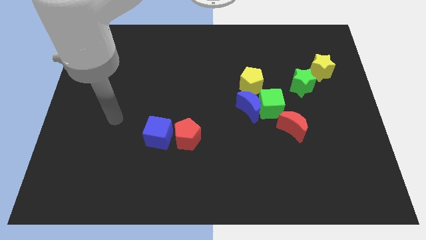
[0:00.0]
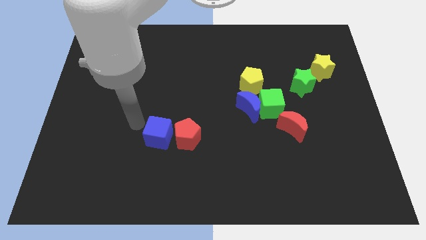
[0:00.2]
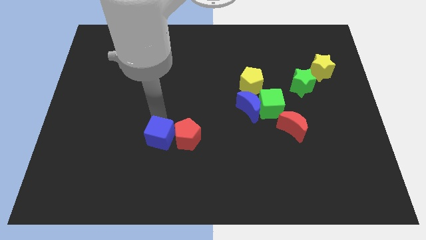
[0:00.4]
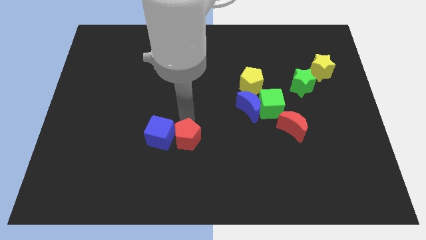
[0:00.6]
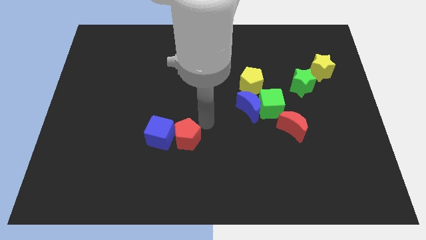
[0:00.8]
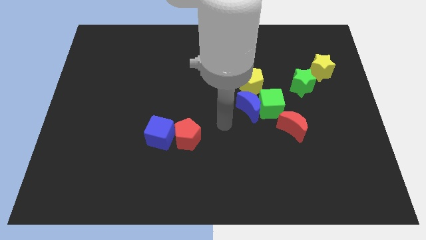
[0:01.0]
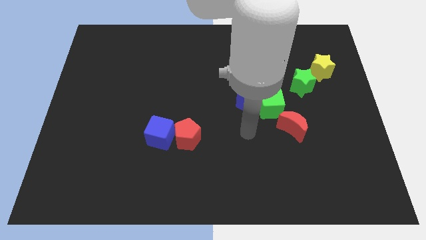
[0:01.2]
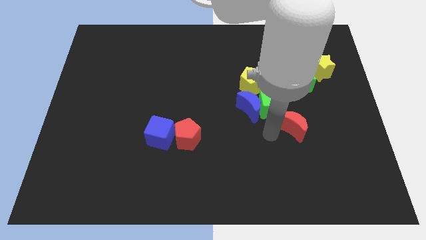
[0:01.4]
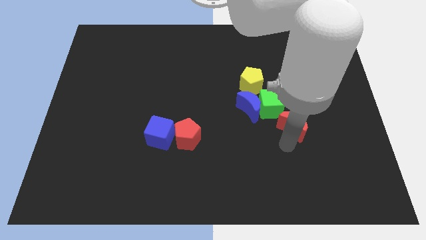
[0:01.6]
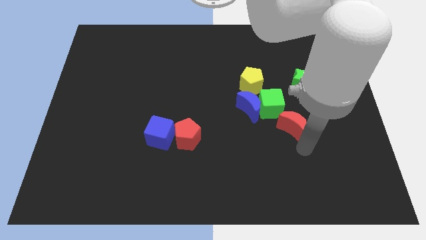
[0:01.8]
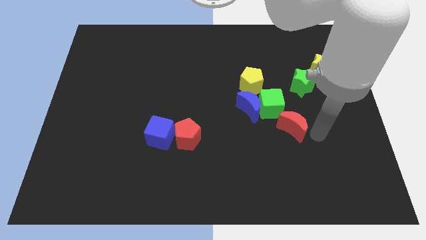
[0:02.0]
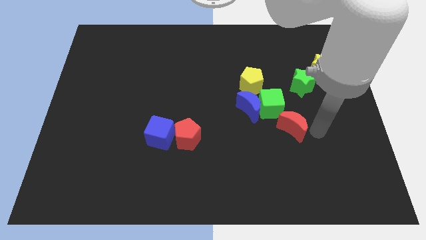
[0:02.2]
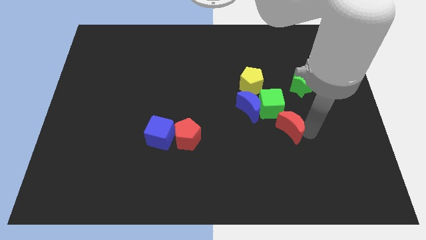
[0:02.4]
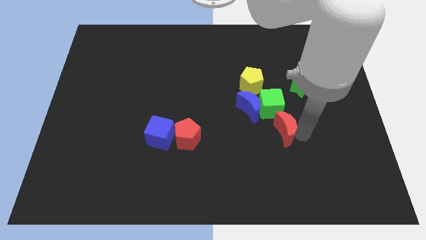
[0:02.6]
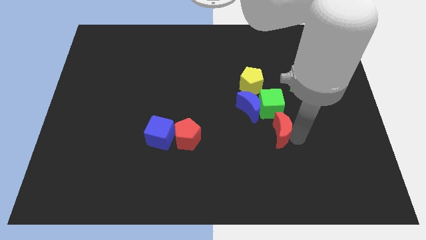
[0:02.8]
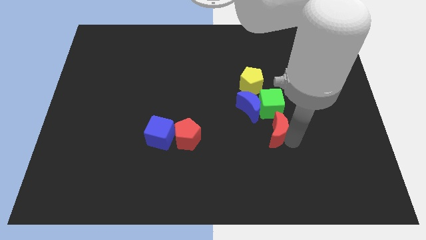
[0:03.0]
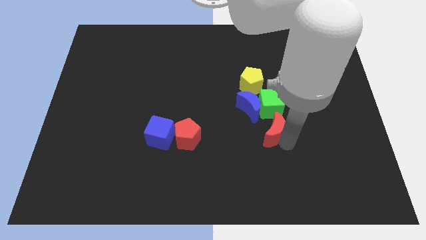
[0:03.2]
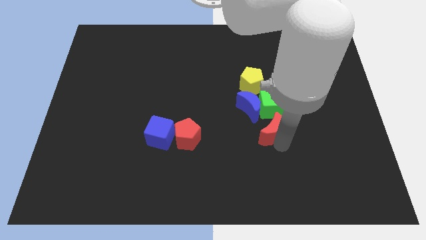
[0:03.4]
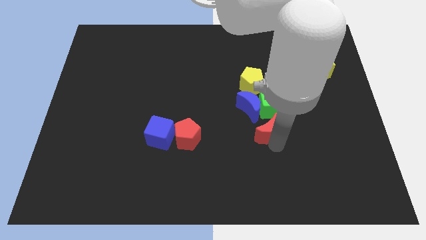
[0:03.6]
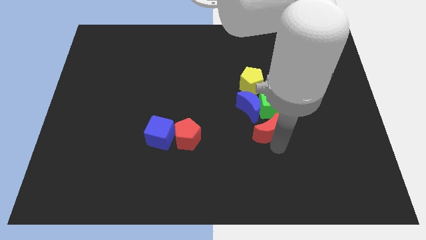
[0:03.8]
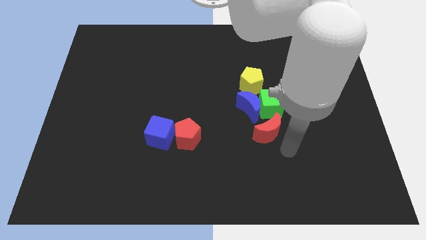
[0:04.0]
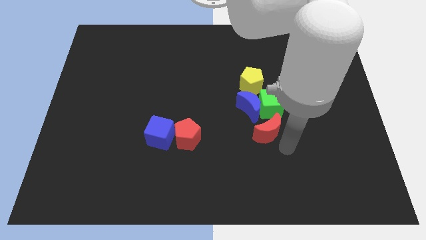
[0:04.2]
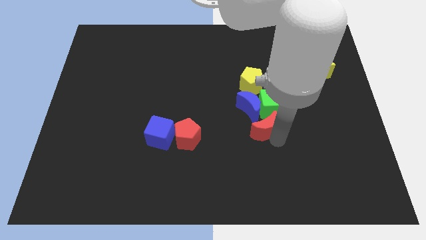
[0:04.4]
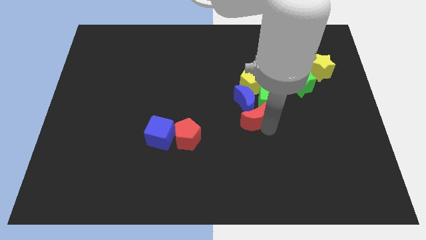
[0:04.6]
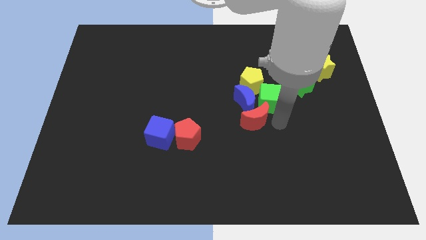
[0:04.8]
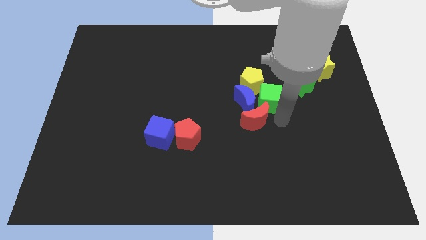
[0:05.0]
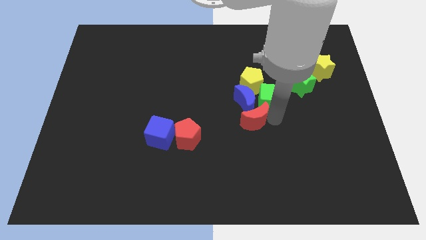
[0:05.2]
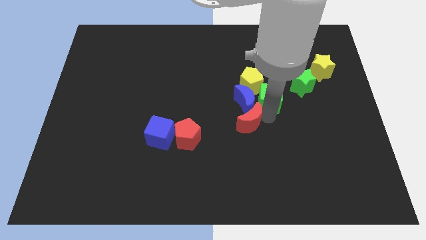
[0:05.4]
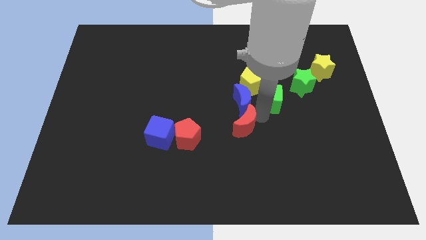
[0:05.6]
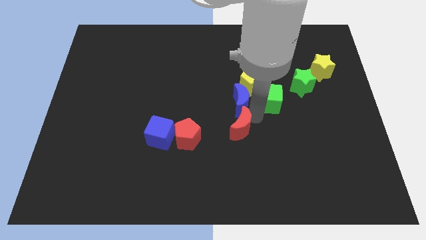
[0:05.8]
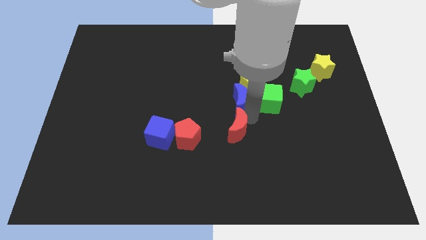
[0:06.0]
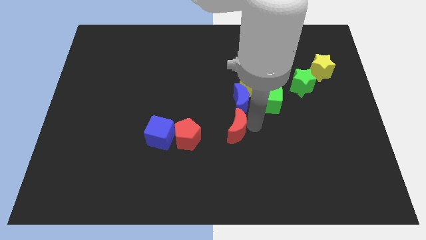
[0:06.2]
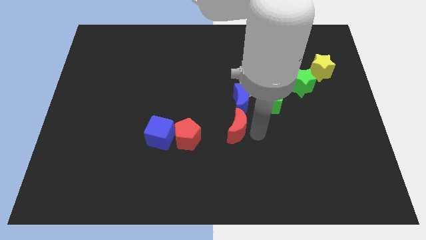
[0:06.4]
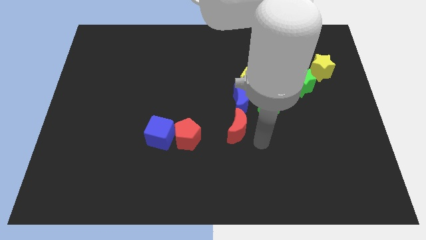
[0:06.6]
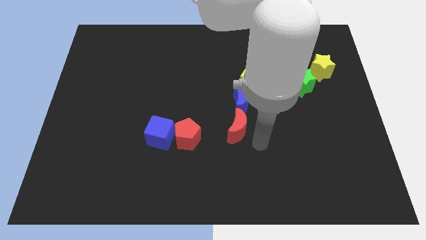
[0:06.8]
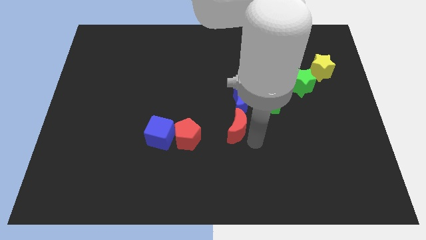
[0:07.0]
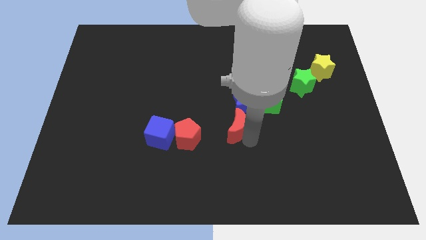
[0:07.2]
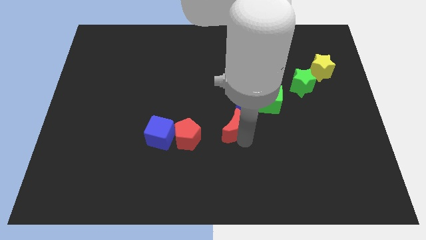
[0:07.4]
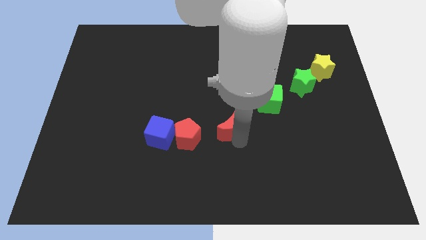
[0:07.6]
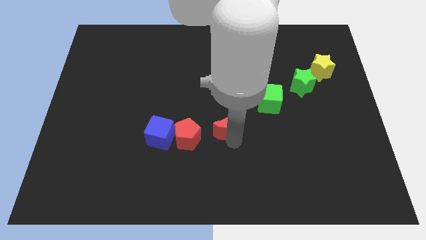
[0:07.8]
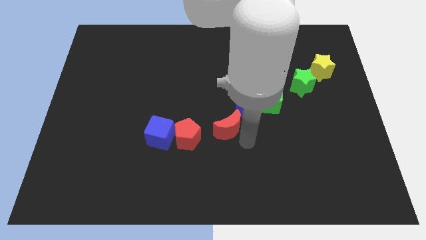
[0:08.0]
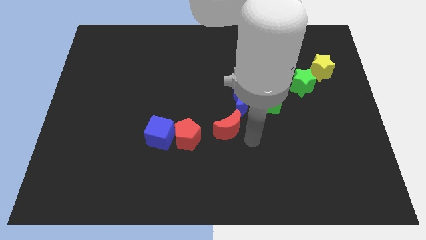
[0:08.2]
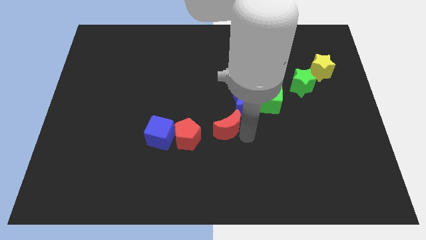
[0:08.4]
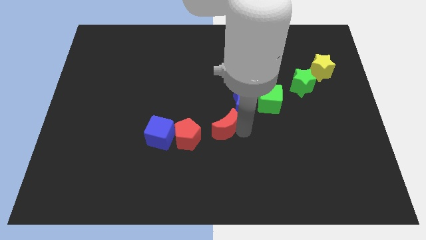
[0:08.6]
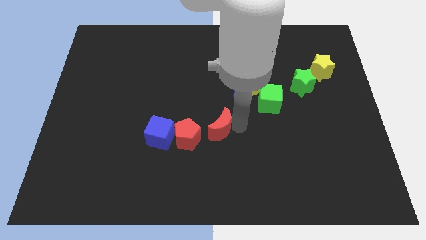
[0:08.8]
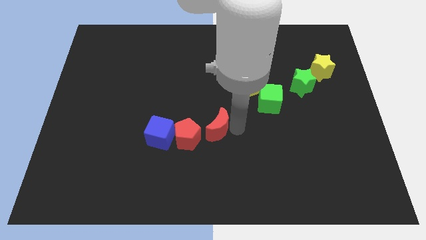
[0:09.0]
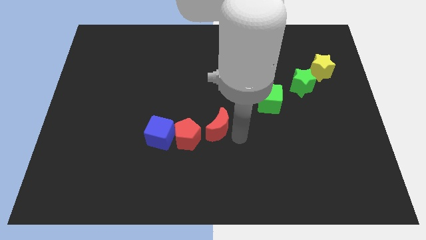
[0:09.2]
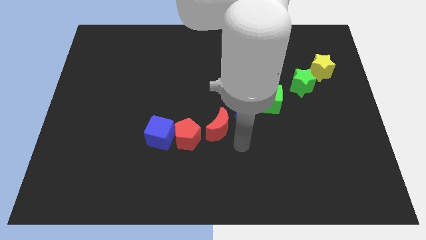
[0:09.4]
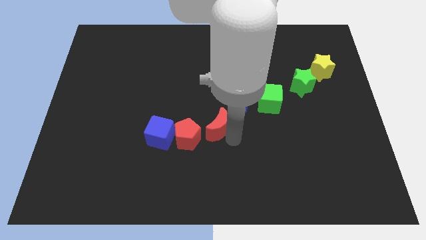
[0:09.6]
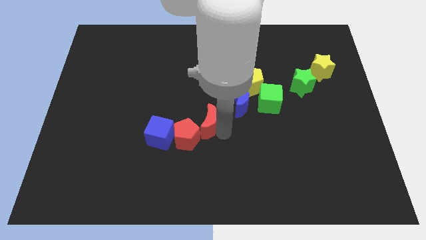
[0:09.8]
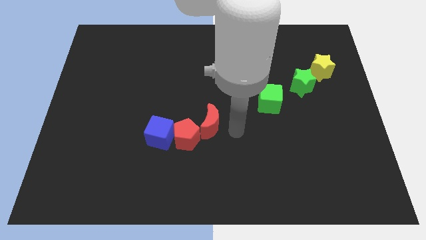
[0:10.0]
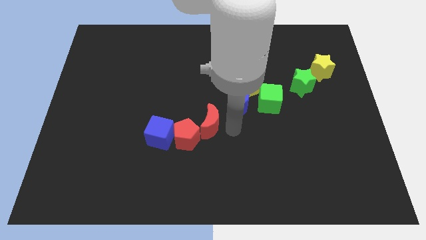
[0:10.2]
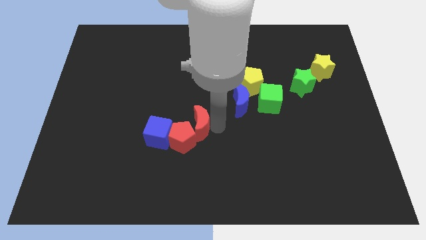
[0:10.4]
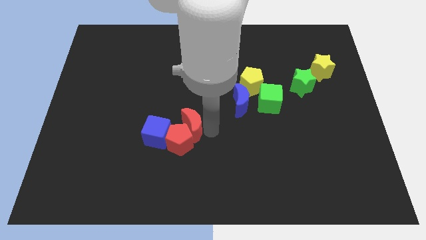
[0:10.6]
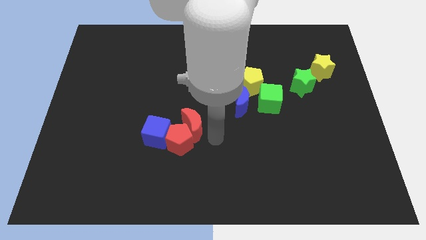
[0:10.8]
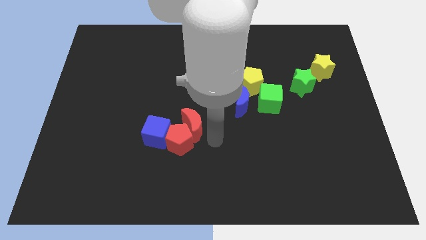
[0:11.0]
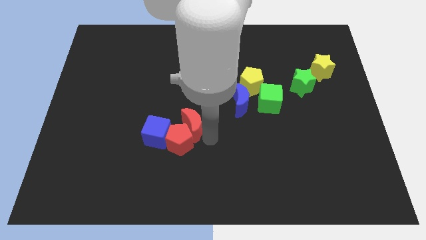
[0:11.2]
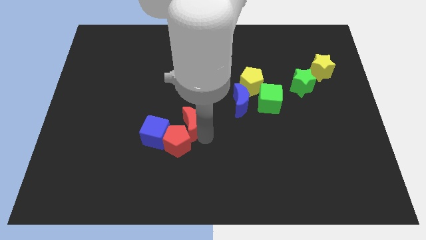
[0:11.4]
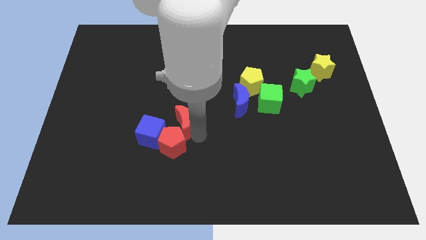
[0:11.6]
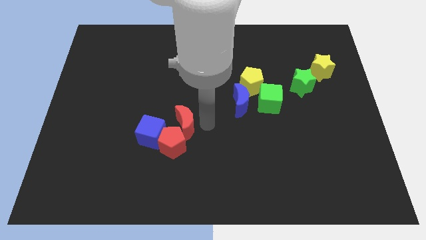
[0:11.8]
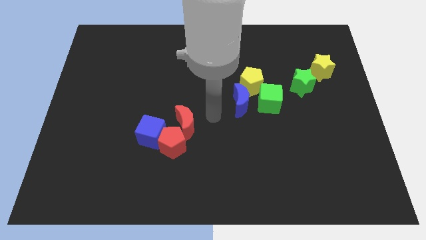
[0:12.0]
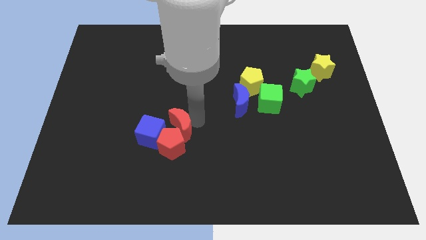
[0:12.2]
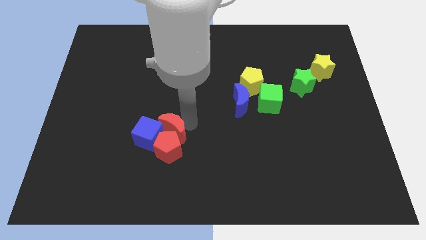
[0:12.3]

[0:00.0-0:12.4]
slide the red moon towards the blue cube

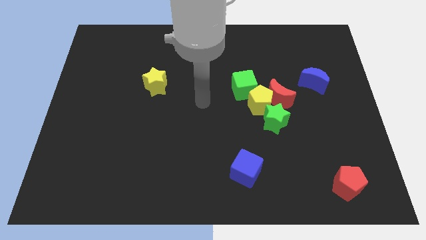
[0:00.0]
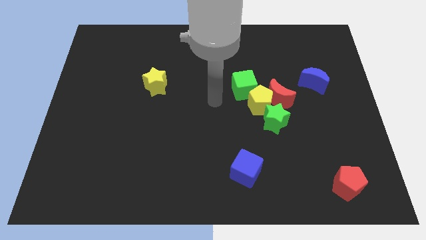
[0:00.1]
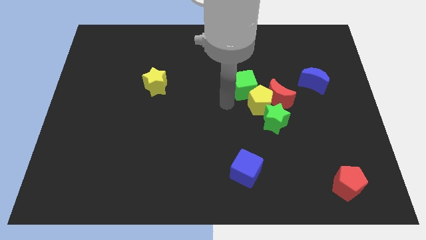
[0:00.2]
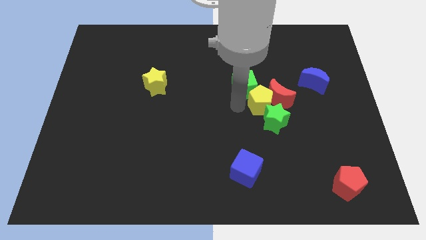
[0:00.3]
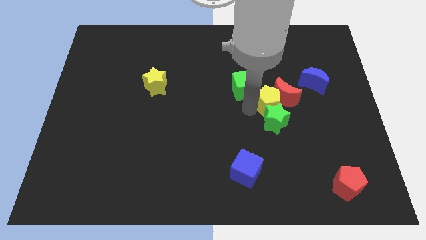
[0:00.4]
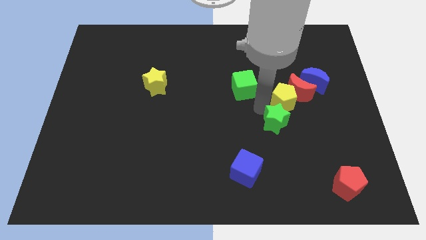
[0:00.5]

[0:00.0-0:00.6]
move the red moon next to the blue moon
